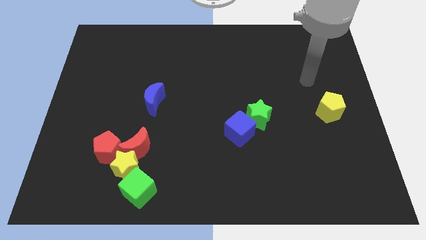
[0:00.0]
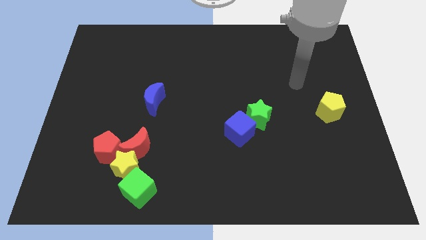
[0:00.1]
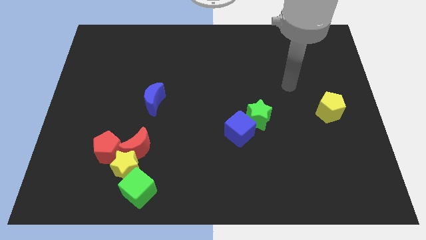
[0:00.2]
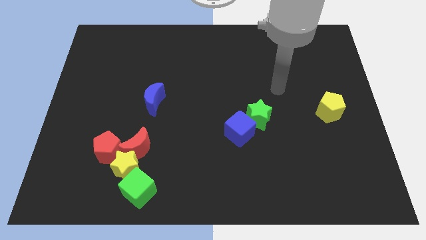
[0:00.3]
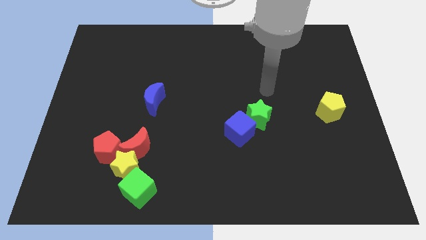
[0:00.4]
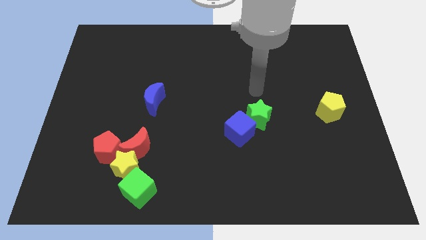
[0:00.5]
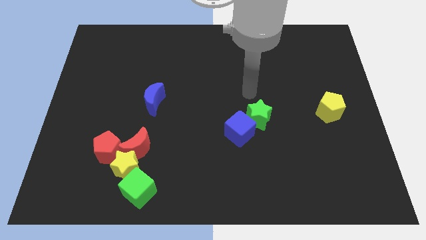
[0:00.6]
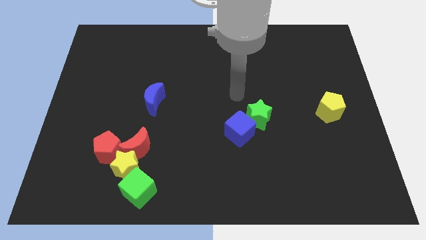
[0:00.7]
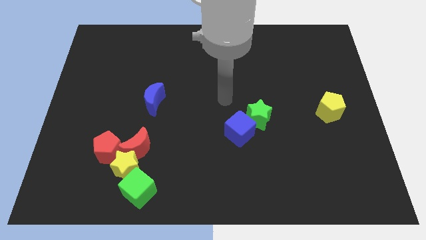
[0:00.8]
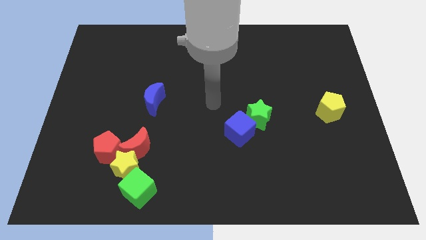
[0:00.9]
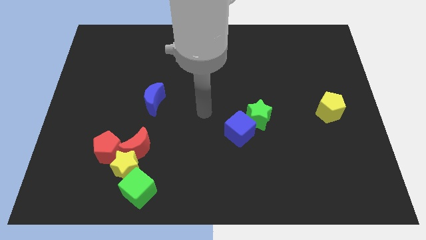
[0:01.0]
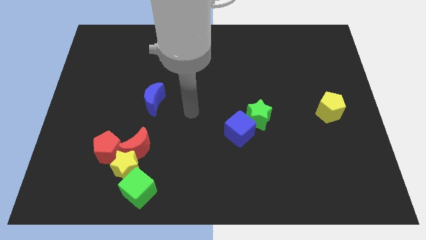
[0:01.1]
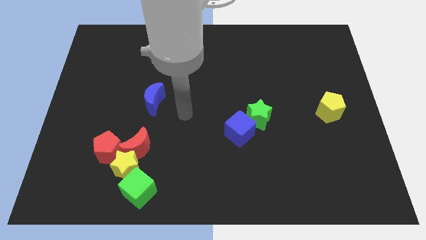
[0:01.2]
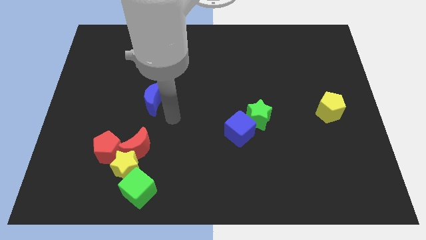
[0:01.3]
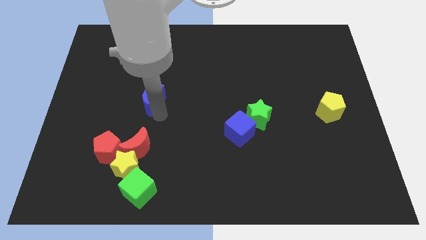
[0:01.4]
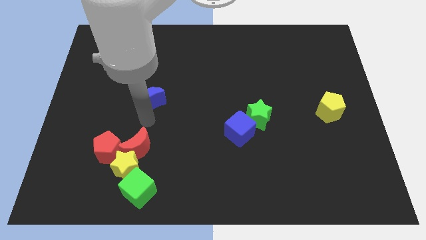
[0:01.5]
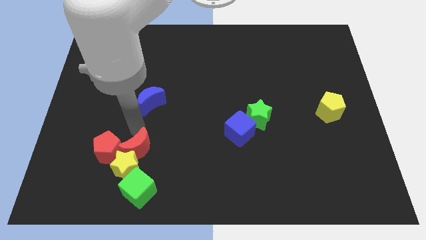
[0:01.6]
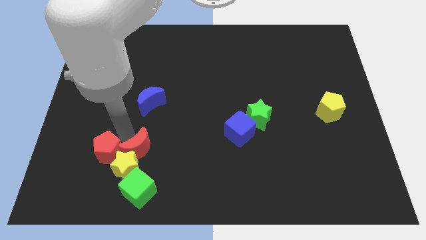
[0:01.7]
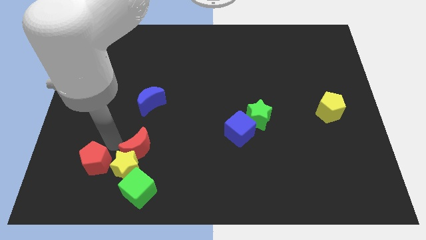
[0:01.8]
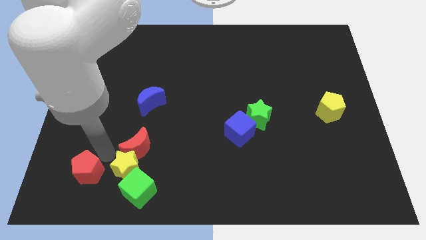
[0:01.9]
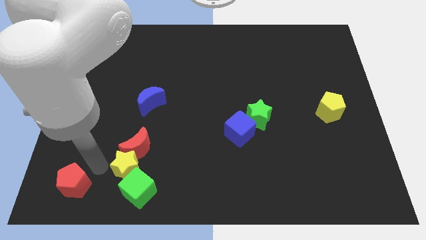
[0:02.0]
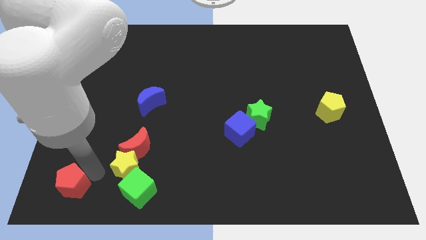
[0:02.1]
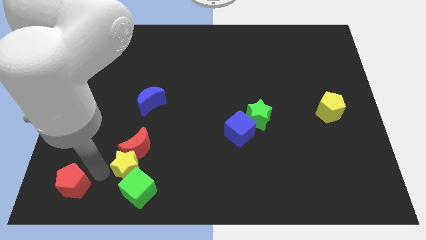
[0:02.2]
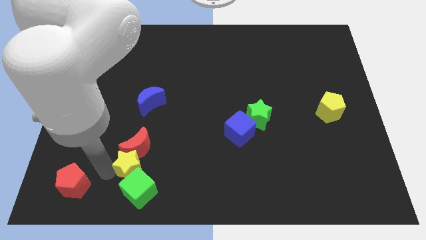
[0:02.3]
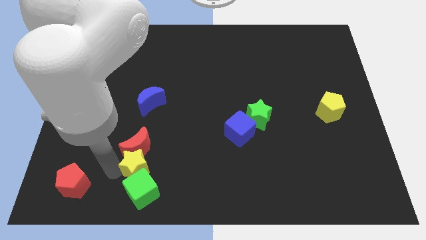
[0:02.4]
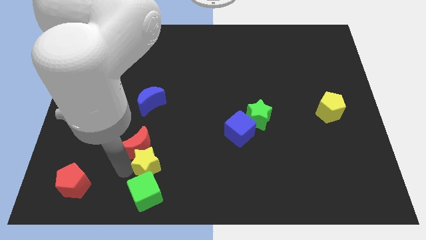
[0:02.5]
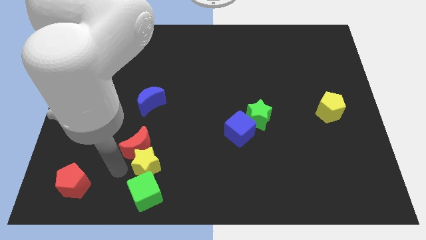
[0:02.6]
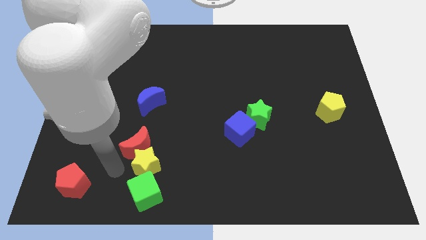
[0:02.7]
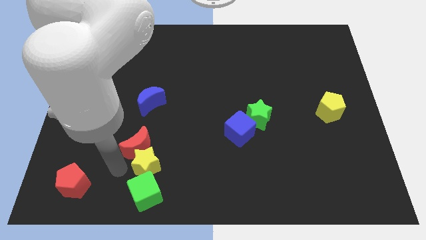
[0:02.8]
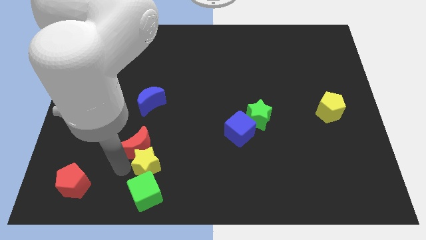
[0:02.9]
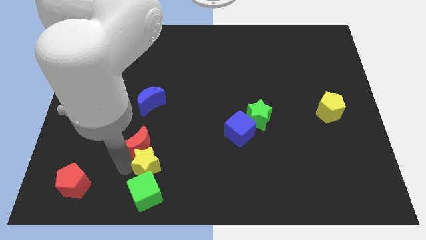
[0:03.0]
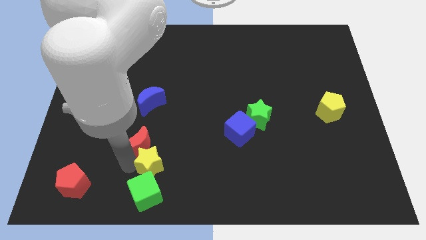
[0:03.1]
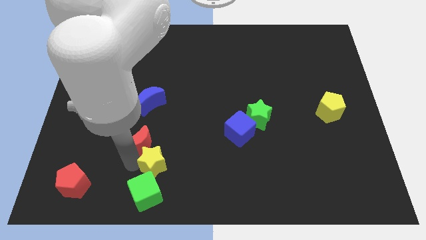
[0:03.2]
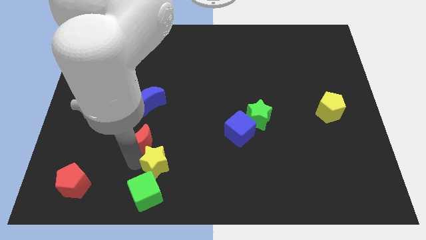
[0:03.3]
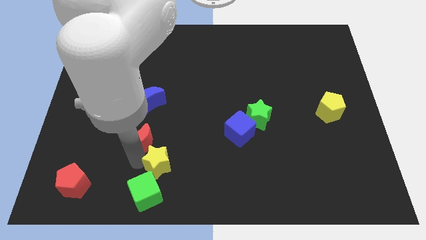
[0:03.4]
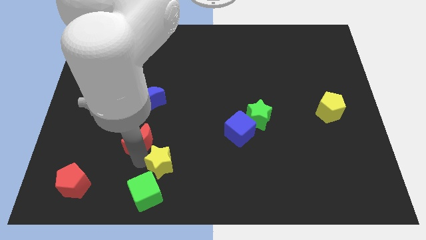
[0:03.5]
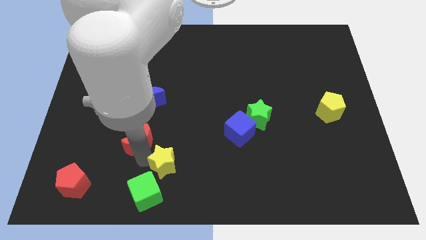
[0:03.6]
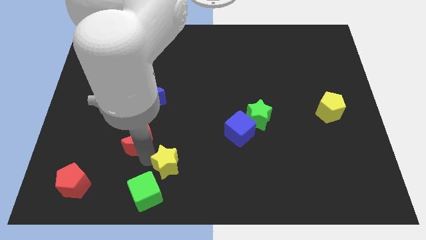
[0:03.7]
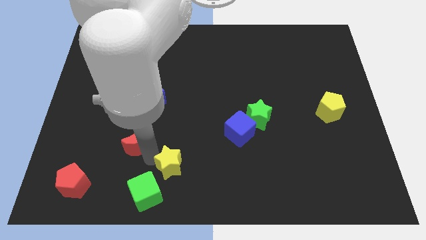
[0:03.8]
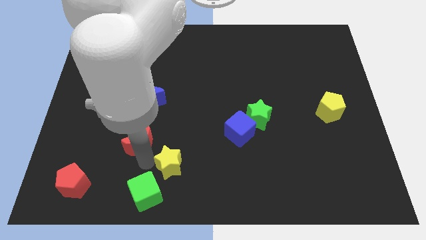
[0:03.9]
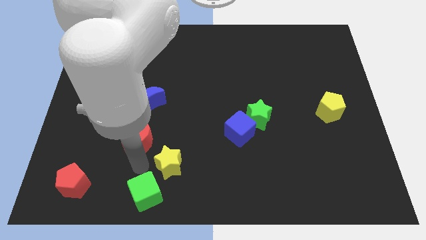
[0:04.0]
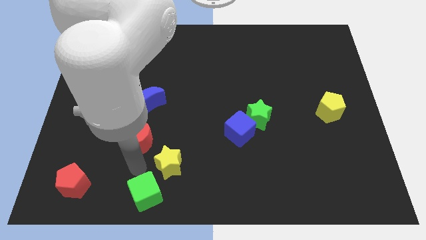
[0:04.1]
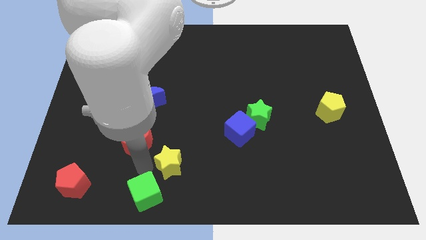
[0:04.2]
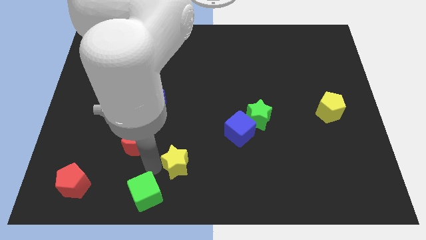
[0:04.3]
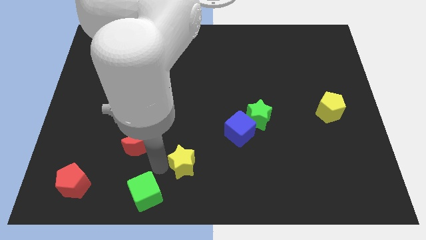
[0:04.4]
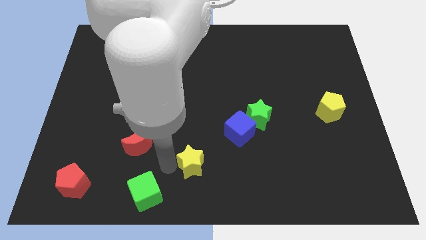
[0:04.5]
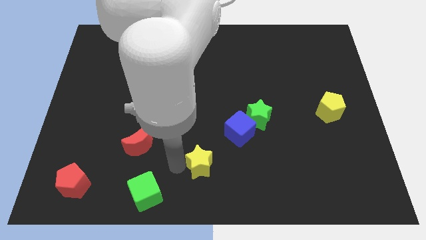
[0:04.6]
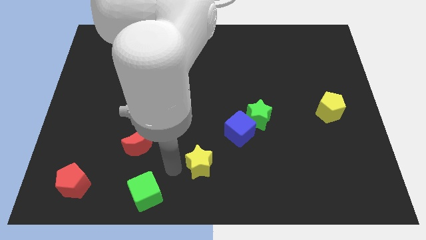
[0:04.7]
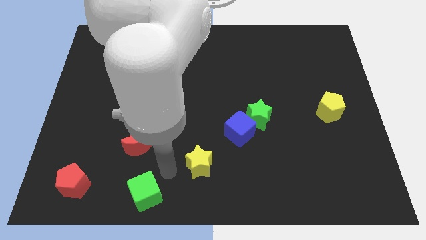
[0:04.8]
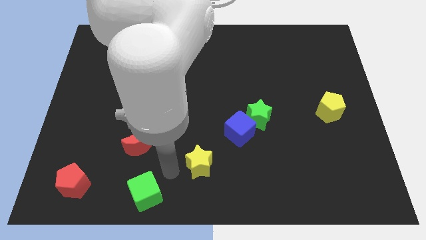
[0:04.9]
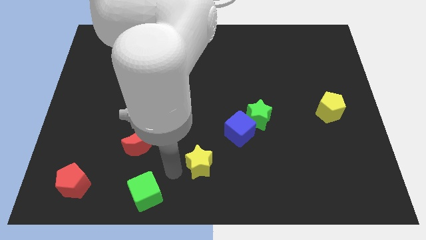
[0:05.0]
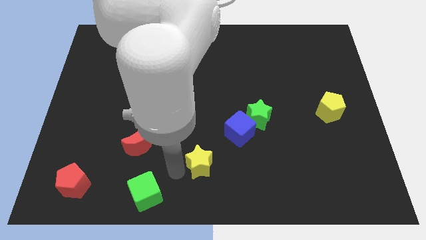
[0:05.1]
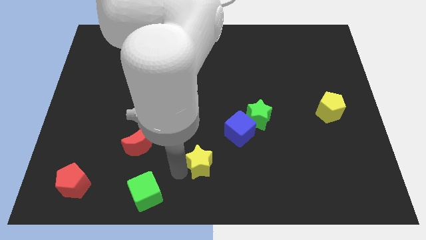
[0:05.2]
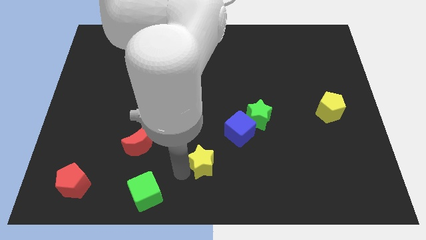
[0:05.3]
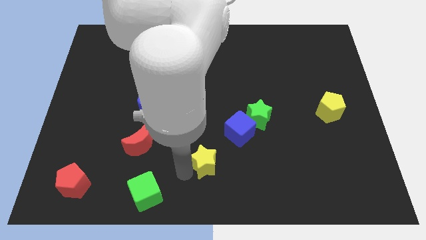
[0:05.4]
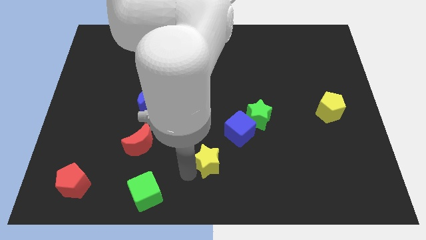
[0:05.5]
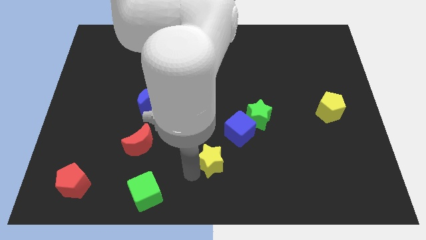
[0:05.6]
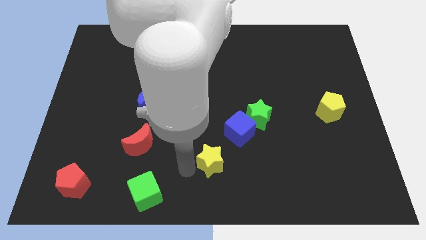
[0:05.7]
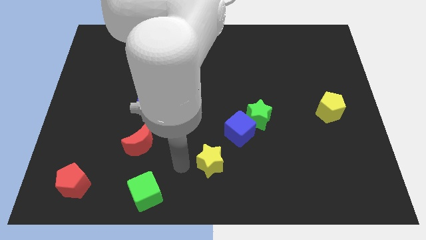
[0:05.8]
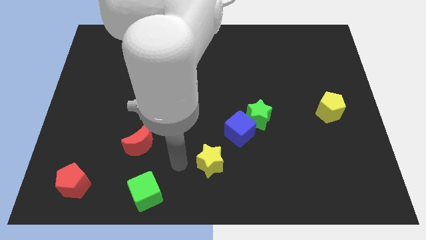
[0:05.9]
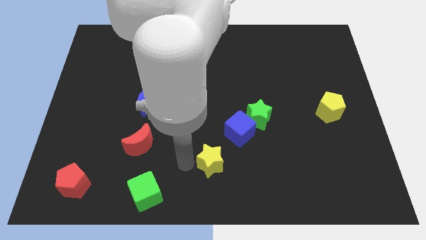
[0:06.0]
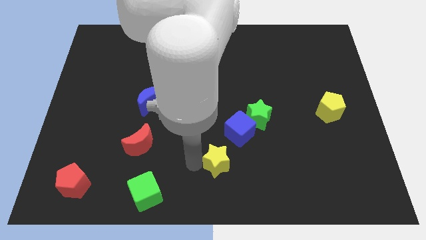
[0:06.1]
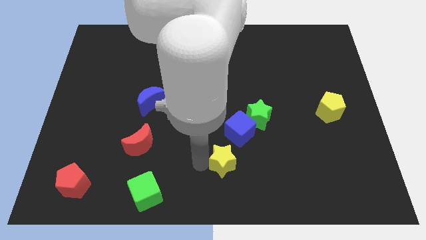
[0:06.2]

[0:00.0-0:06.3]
push the yellow star to the right

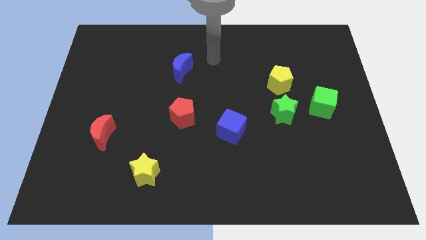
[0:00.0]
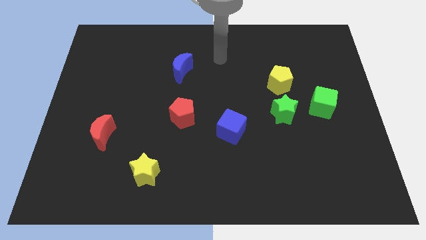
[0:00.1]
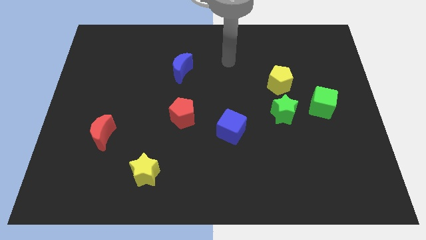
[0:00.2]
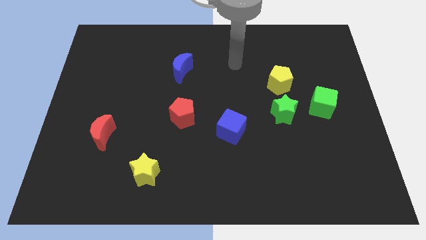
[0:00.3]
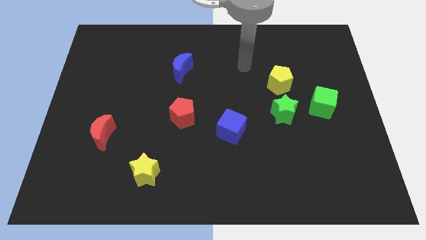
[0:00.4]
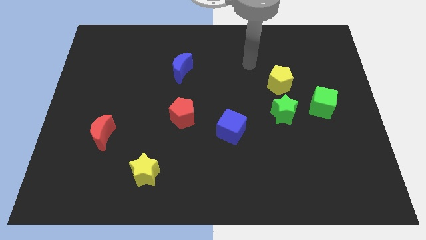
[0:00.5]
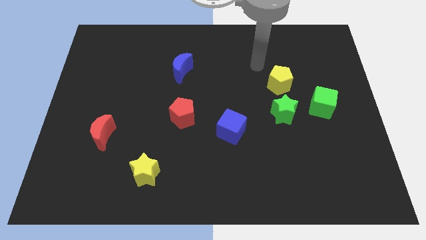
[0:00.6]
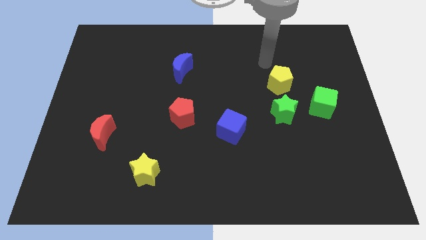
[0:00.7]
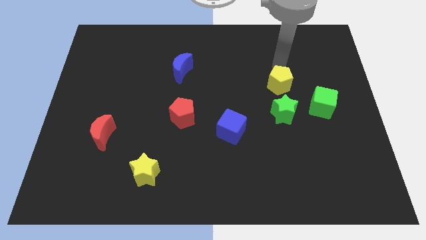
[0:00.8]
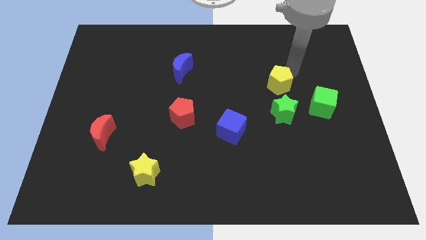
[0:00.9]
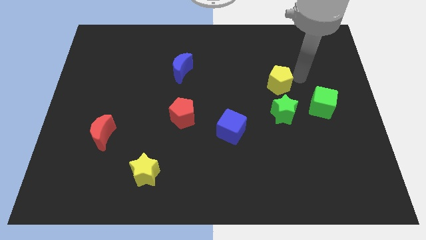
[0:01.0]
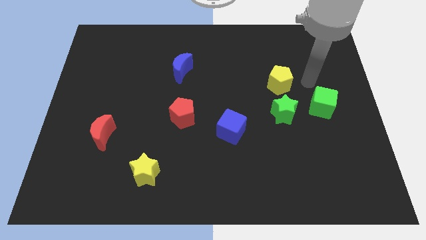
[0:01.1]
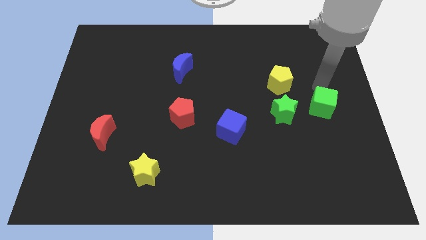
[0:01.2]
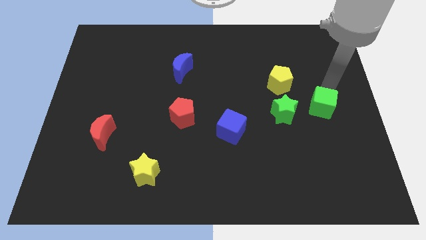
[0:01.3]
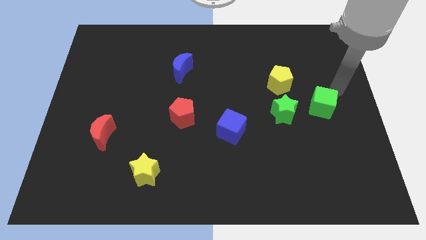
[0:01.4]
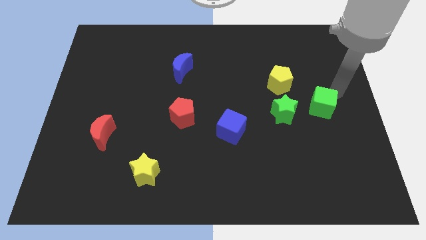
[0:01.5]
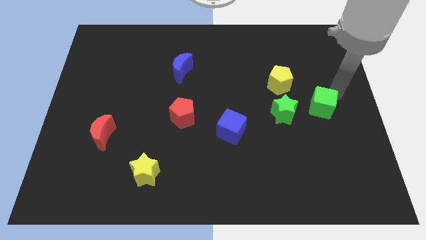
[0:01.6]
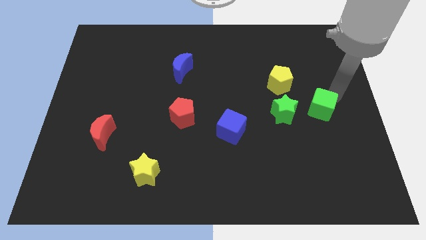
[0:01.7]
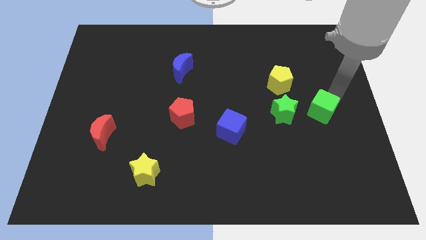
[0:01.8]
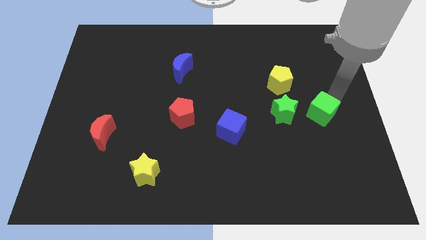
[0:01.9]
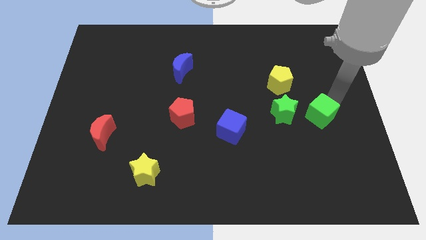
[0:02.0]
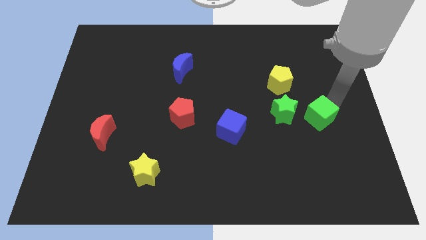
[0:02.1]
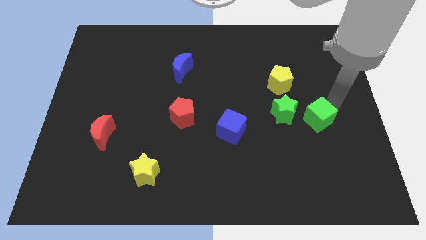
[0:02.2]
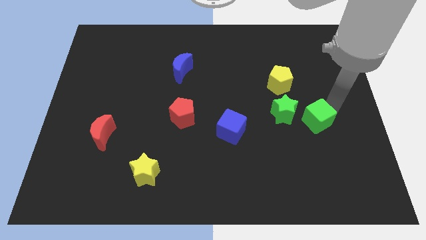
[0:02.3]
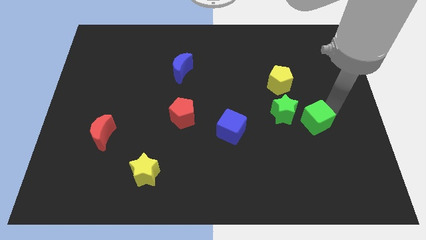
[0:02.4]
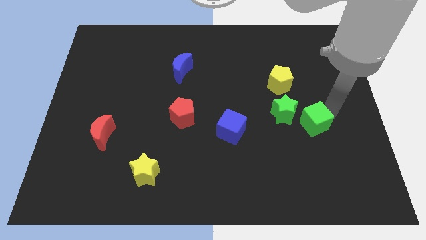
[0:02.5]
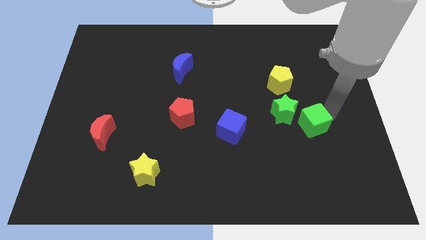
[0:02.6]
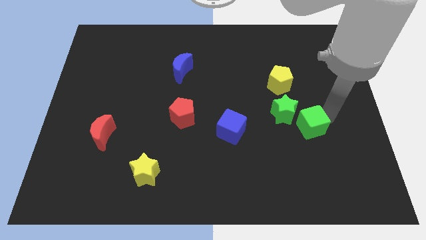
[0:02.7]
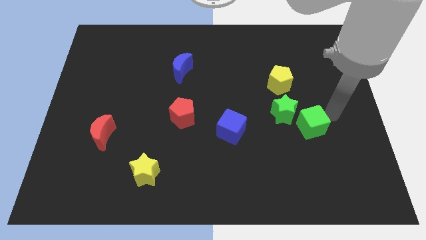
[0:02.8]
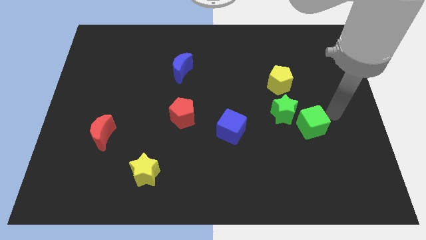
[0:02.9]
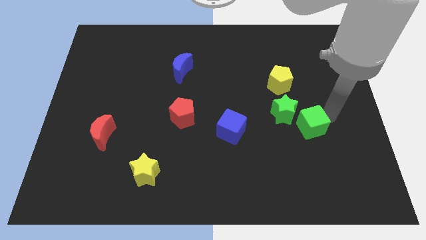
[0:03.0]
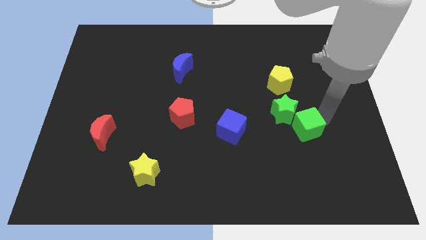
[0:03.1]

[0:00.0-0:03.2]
slightly push the green cube down and to the left diagonally
